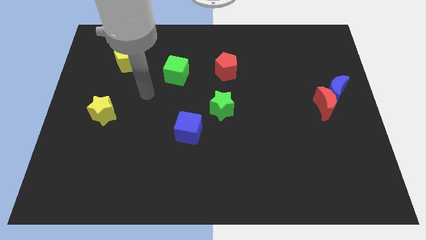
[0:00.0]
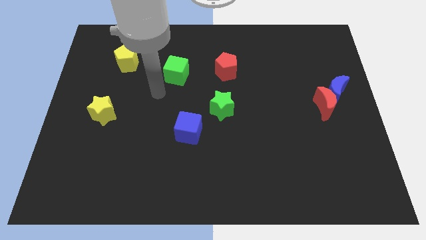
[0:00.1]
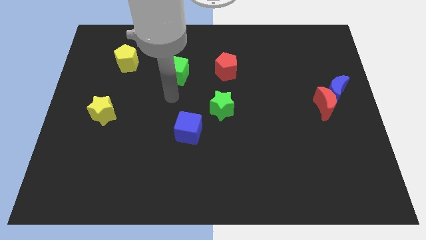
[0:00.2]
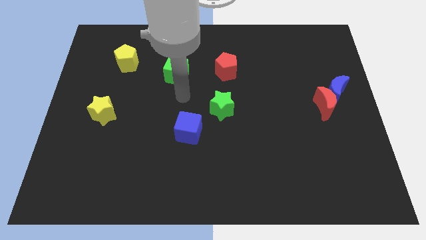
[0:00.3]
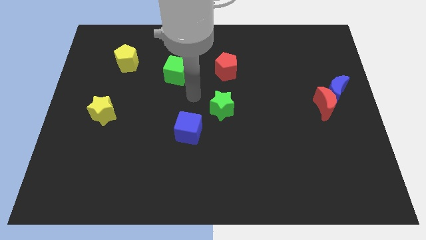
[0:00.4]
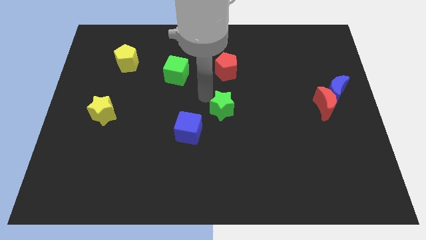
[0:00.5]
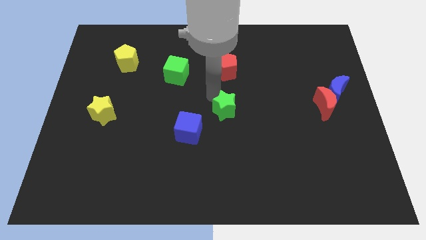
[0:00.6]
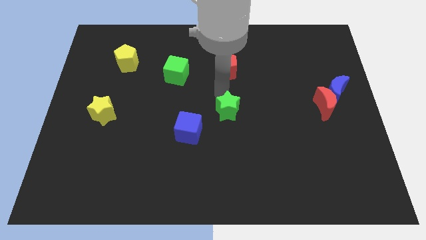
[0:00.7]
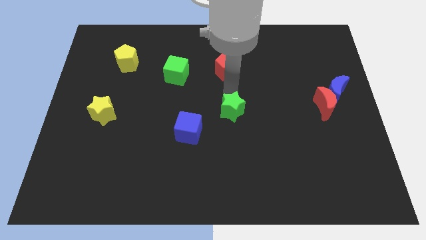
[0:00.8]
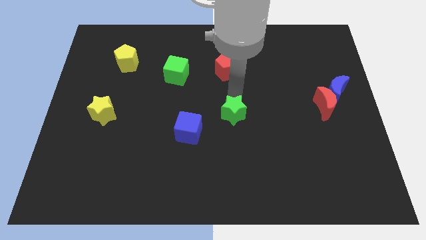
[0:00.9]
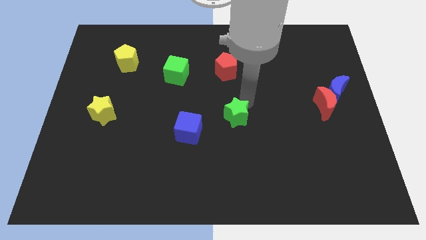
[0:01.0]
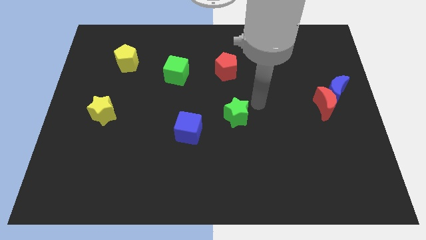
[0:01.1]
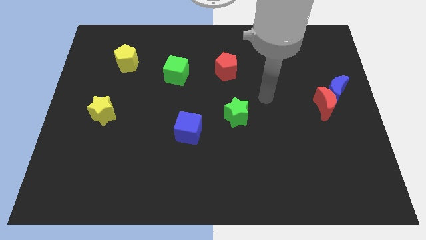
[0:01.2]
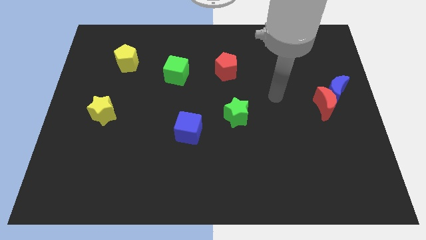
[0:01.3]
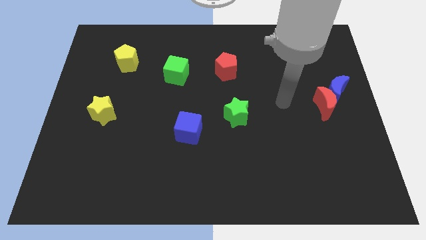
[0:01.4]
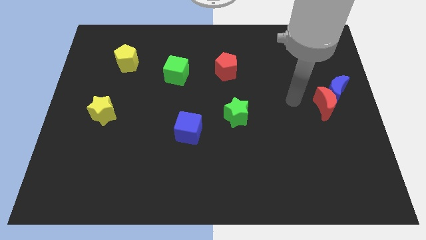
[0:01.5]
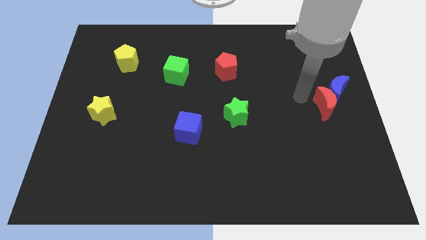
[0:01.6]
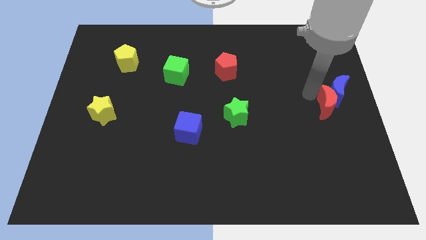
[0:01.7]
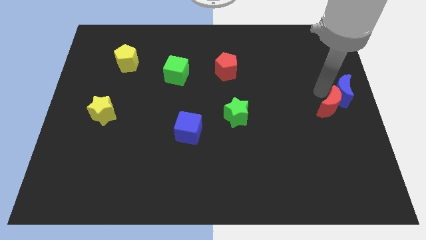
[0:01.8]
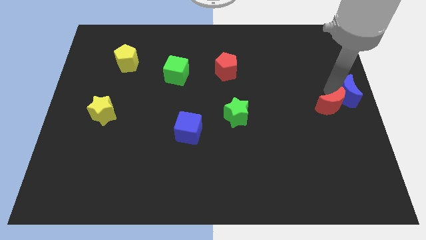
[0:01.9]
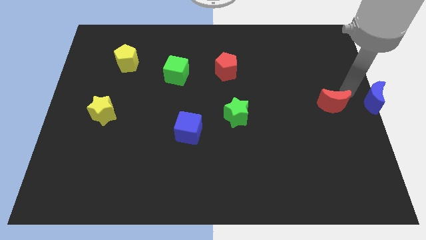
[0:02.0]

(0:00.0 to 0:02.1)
separate the red moon from the blue moon

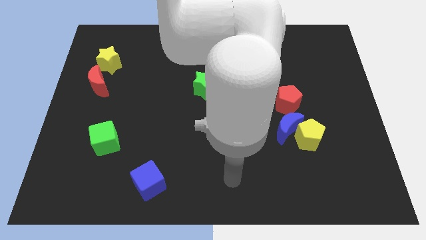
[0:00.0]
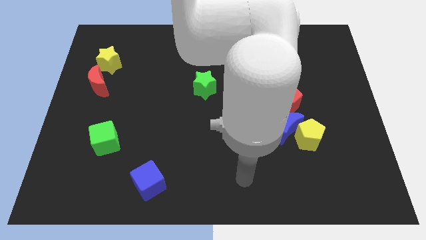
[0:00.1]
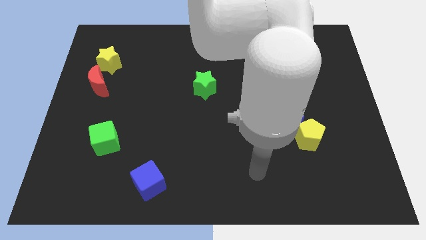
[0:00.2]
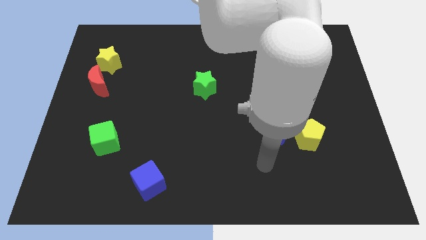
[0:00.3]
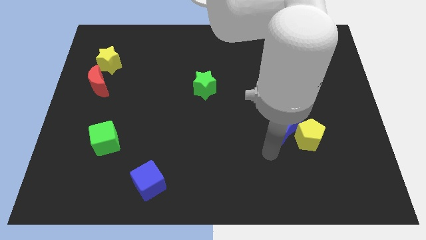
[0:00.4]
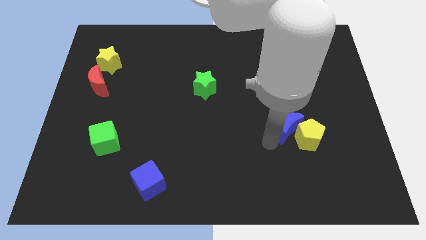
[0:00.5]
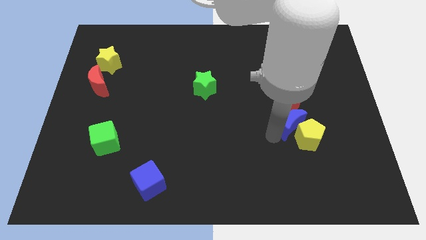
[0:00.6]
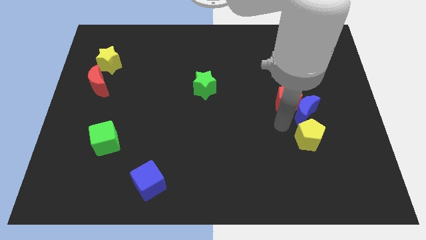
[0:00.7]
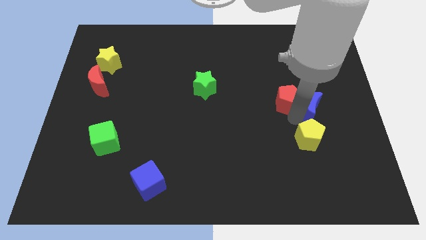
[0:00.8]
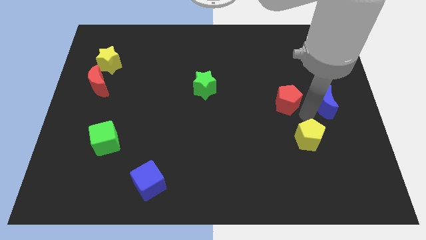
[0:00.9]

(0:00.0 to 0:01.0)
pull the yellow pentagon apart from the blue moon

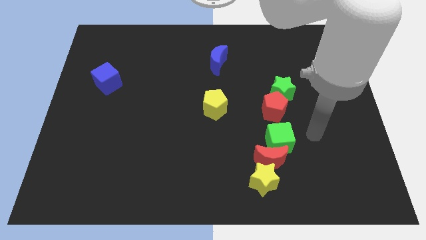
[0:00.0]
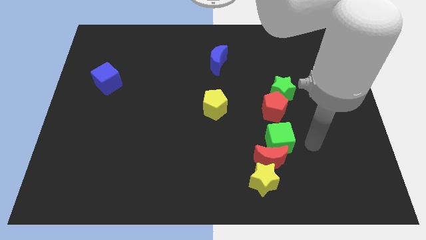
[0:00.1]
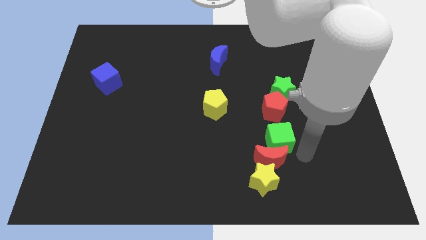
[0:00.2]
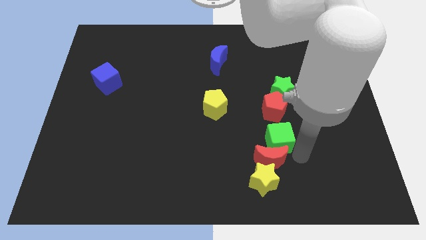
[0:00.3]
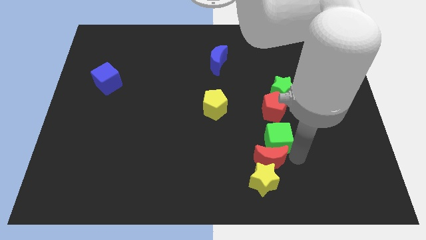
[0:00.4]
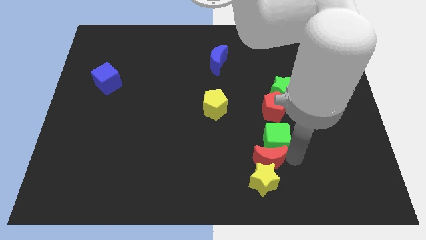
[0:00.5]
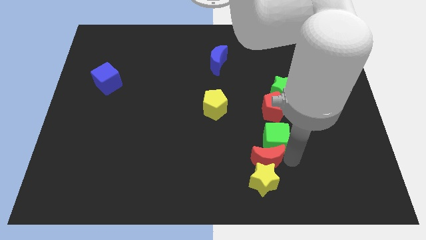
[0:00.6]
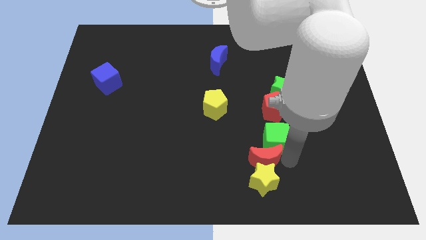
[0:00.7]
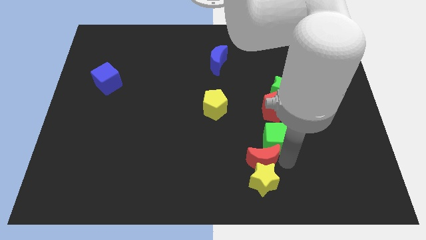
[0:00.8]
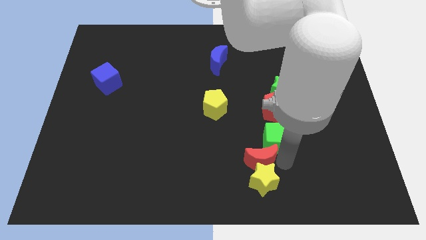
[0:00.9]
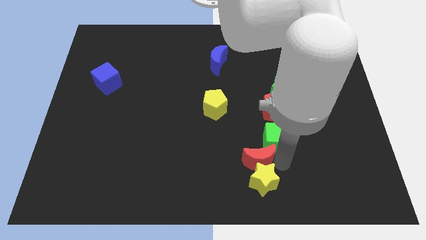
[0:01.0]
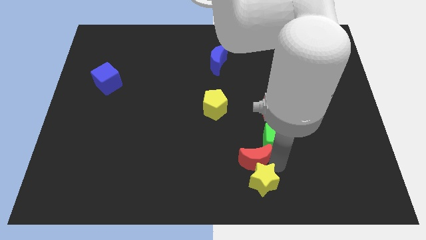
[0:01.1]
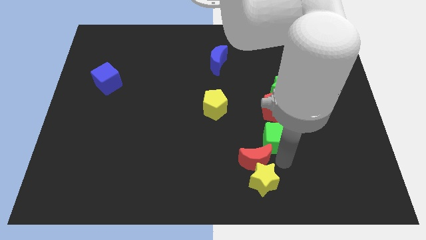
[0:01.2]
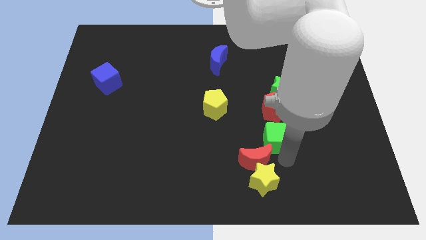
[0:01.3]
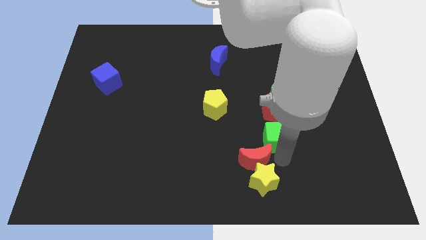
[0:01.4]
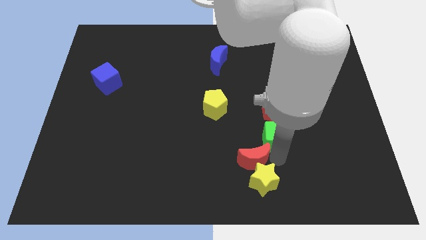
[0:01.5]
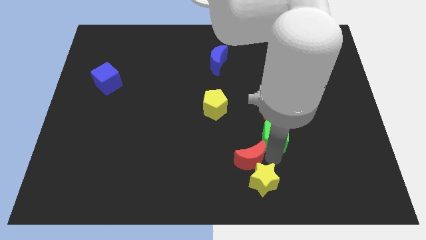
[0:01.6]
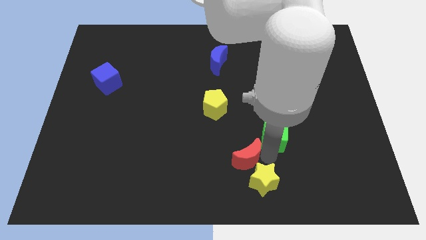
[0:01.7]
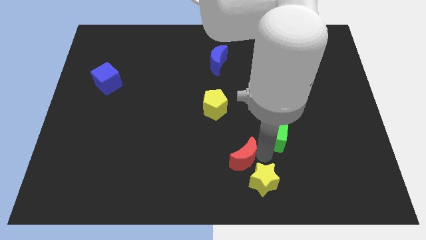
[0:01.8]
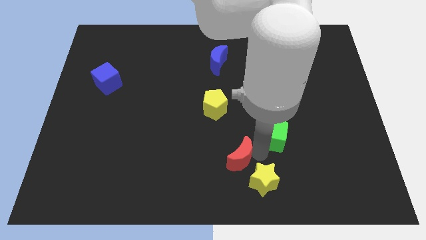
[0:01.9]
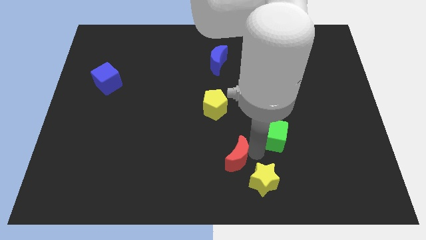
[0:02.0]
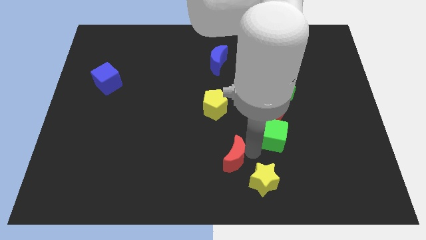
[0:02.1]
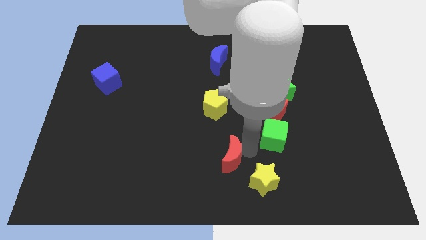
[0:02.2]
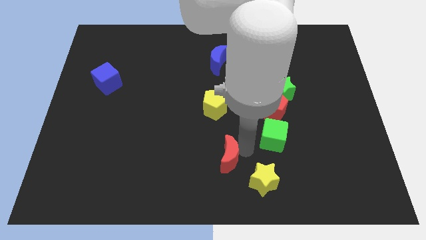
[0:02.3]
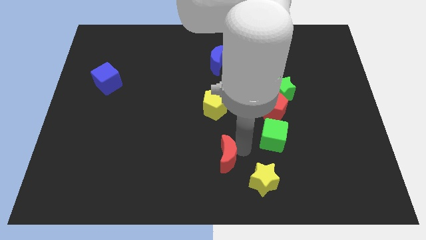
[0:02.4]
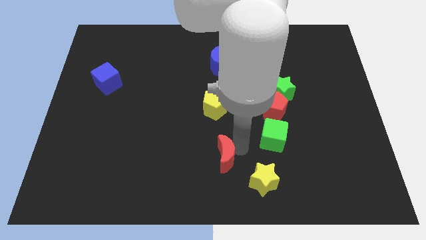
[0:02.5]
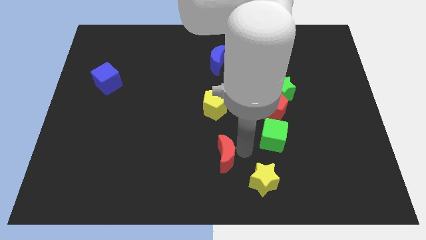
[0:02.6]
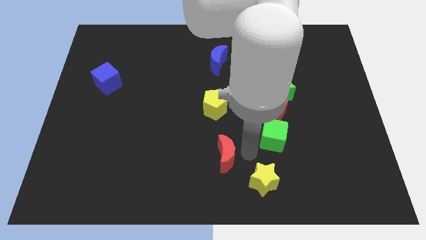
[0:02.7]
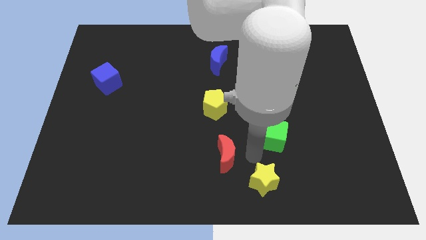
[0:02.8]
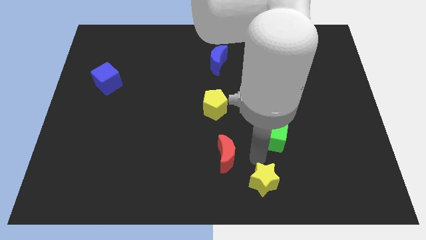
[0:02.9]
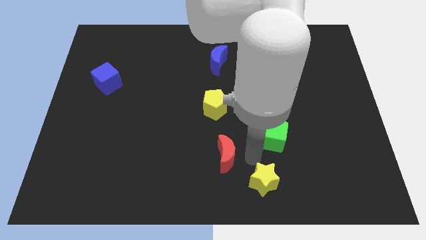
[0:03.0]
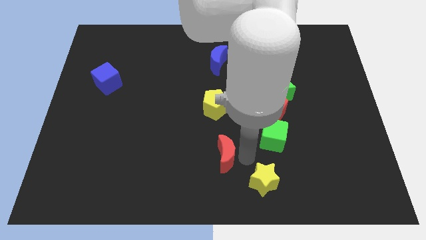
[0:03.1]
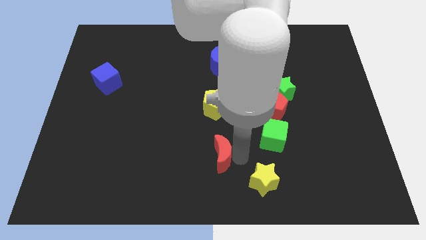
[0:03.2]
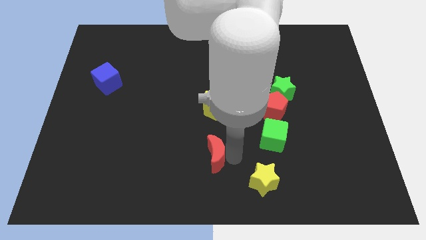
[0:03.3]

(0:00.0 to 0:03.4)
pull the red moon apart from the yellow star and green cube

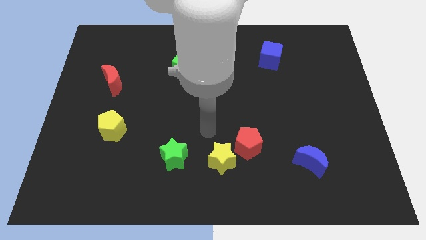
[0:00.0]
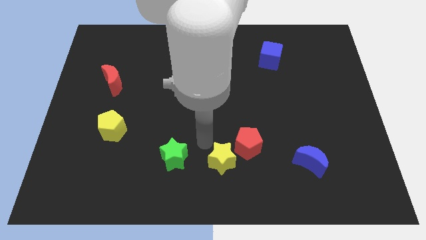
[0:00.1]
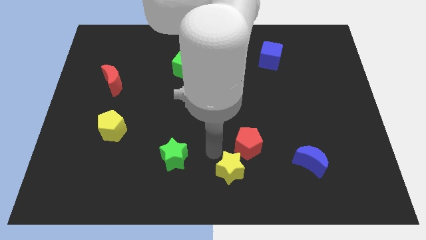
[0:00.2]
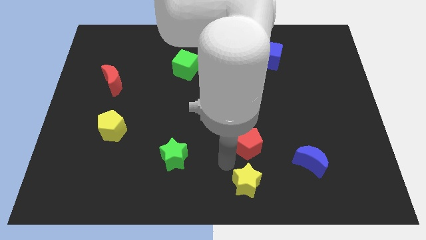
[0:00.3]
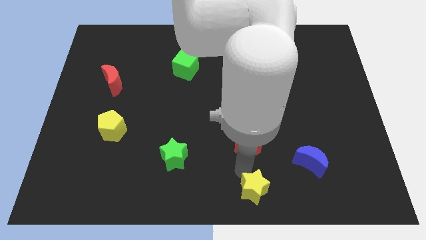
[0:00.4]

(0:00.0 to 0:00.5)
pull the red pentagon apart from the yellow star

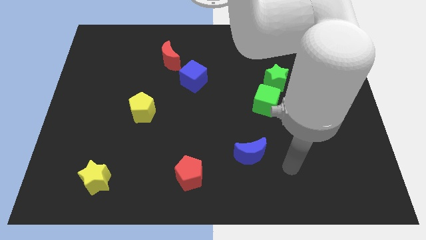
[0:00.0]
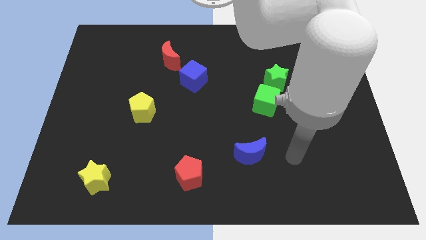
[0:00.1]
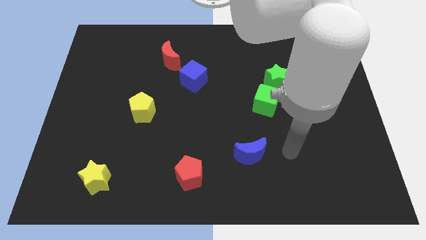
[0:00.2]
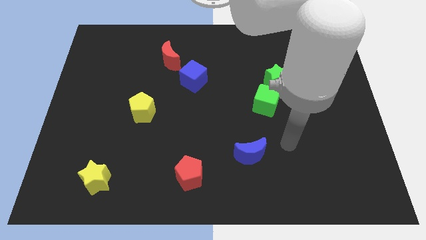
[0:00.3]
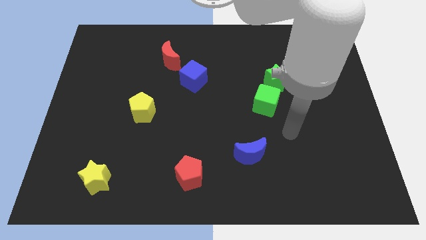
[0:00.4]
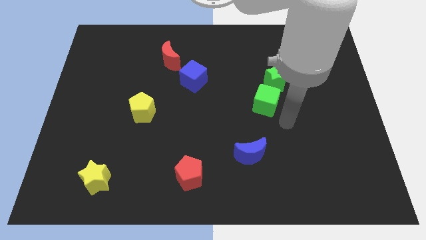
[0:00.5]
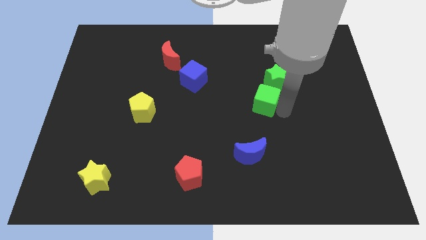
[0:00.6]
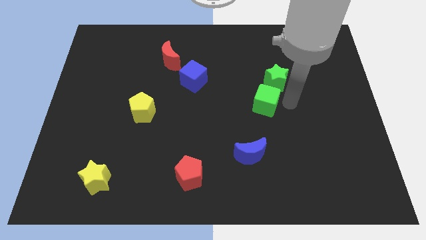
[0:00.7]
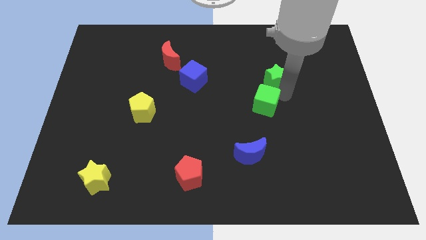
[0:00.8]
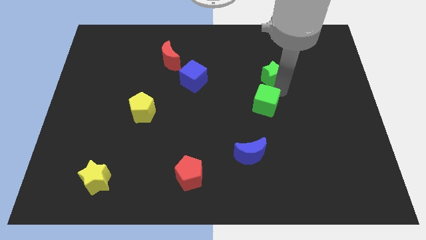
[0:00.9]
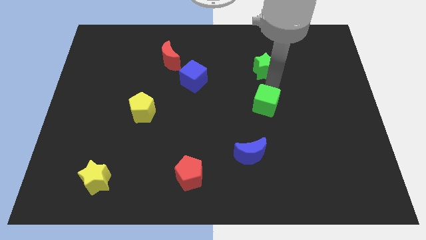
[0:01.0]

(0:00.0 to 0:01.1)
separate the green cube from the green star

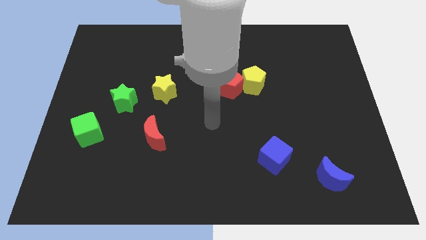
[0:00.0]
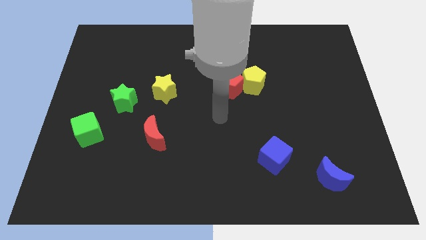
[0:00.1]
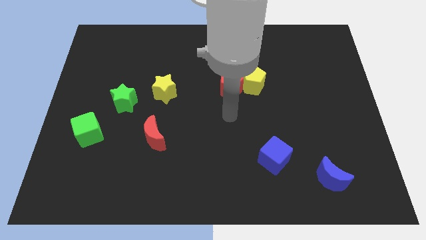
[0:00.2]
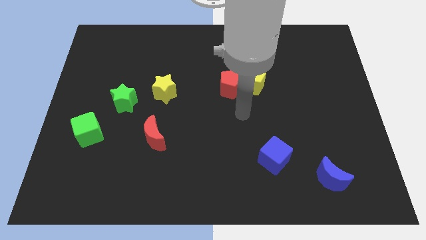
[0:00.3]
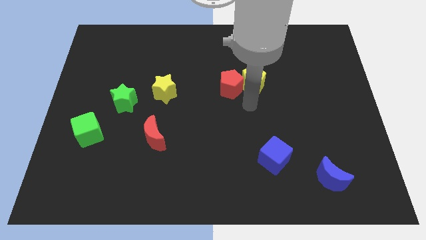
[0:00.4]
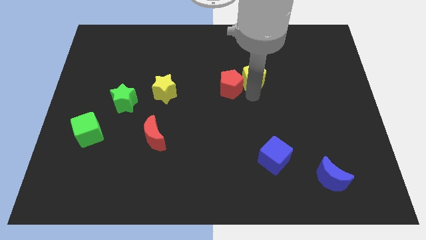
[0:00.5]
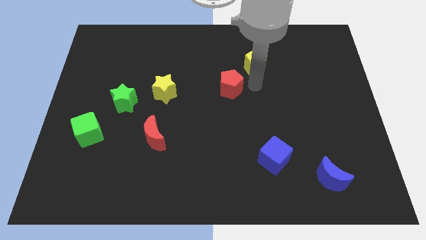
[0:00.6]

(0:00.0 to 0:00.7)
separate the red pentagon from the yellow pentagon

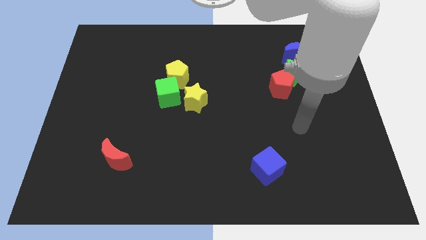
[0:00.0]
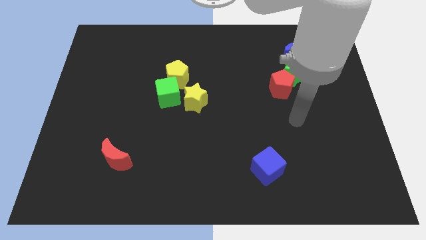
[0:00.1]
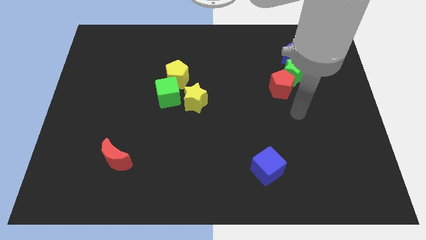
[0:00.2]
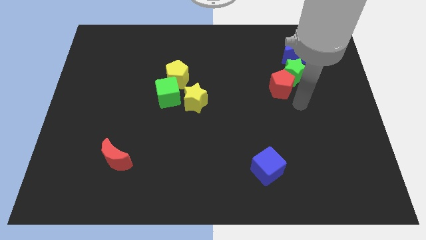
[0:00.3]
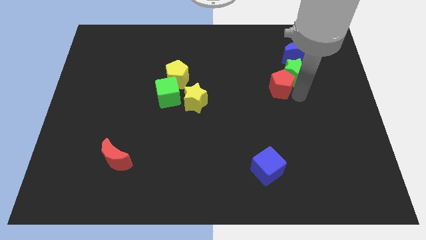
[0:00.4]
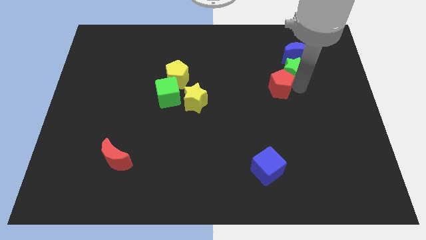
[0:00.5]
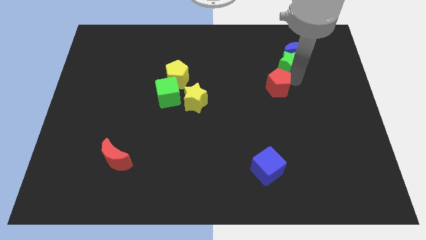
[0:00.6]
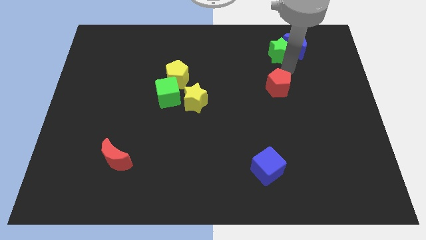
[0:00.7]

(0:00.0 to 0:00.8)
move the red pentagon away from the green star
